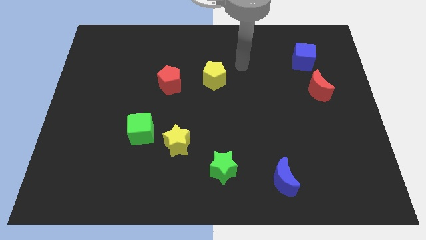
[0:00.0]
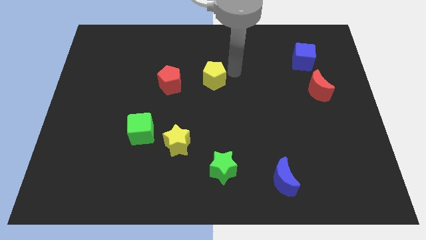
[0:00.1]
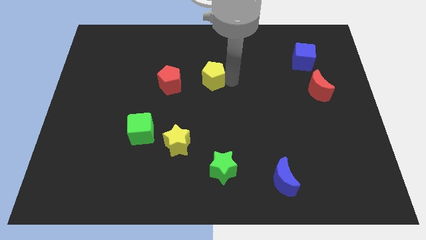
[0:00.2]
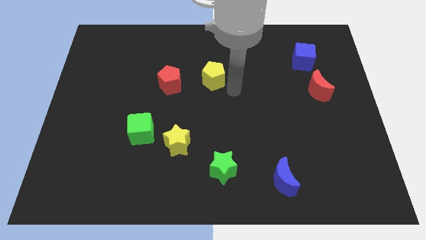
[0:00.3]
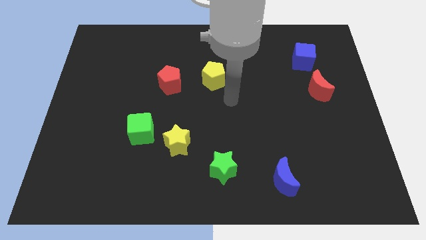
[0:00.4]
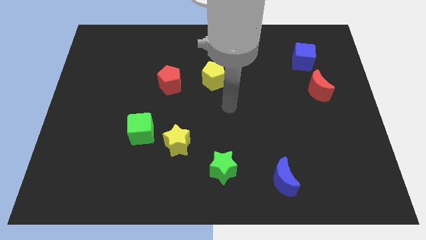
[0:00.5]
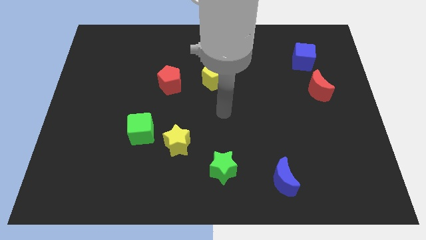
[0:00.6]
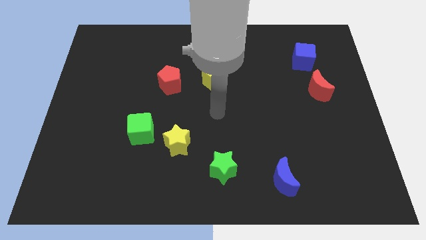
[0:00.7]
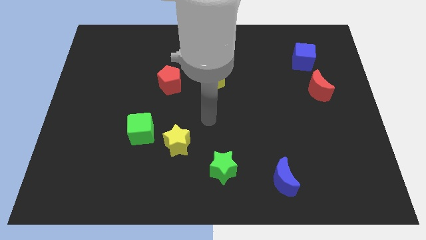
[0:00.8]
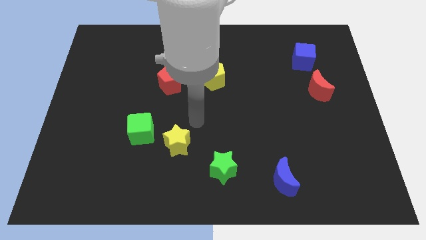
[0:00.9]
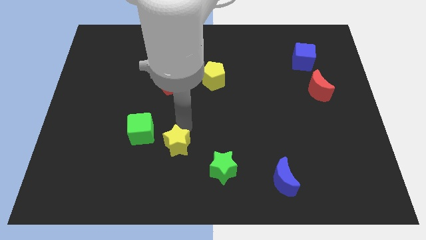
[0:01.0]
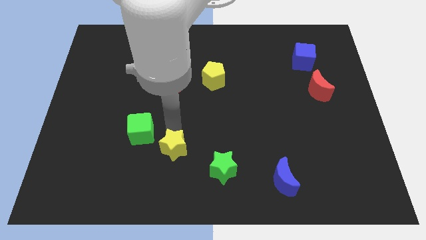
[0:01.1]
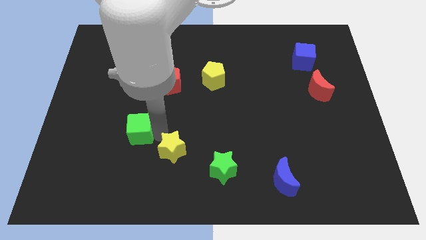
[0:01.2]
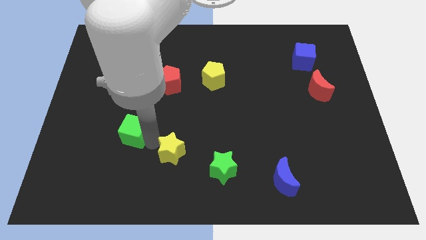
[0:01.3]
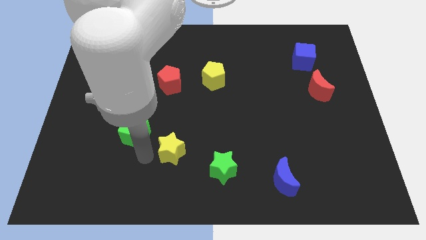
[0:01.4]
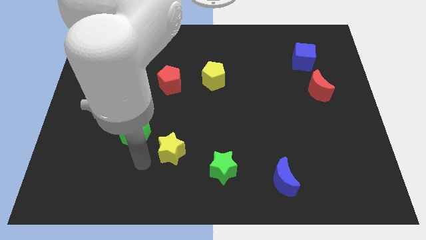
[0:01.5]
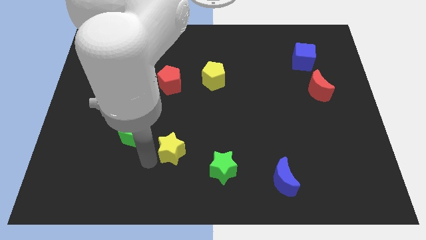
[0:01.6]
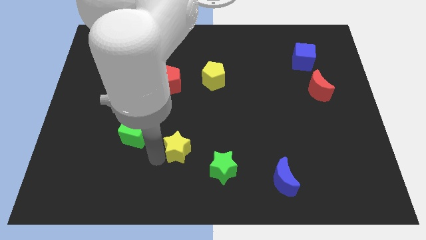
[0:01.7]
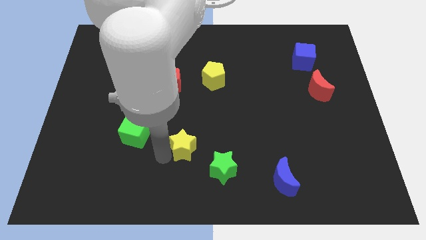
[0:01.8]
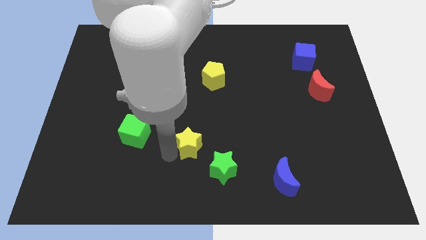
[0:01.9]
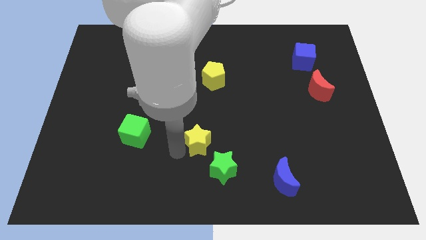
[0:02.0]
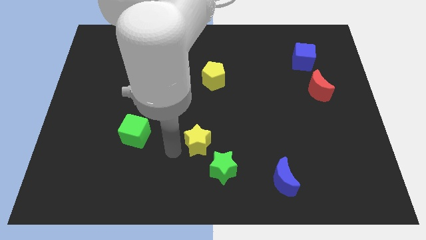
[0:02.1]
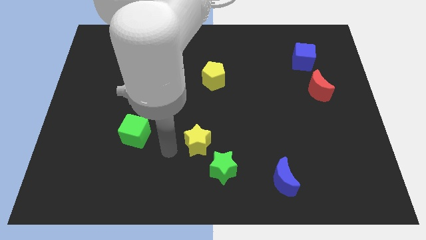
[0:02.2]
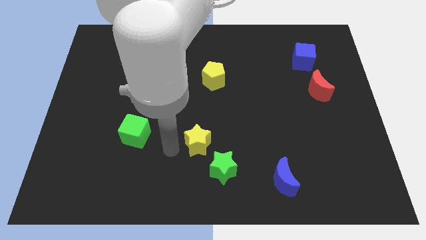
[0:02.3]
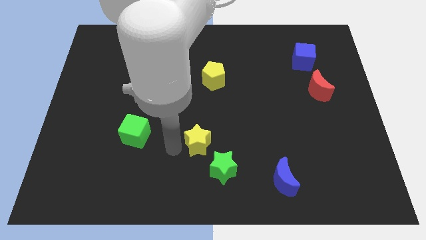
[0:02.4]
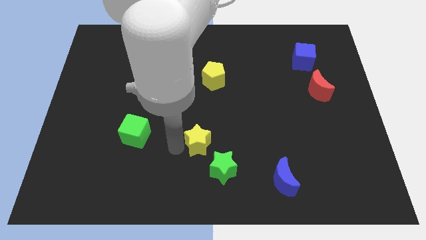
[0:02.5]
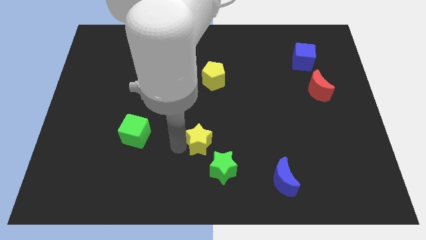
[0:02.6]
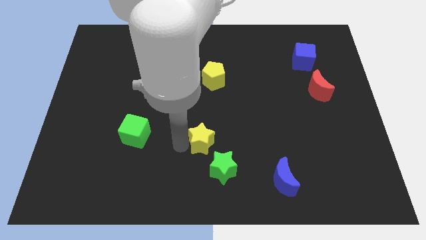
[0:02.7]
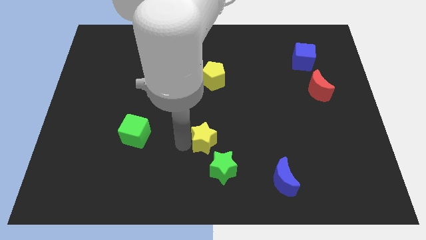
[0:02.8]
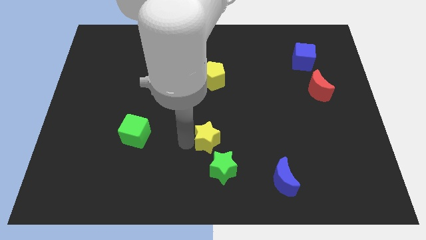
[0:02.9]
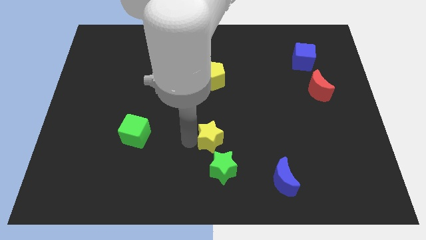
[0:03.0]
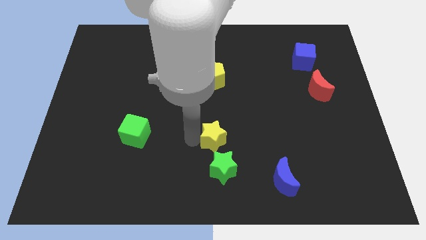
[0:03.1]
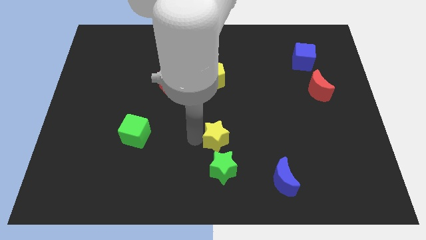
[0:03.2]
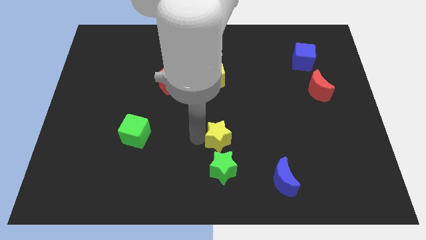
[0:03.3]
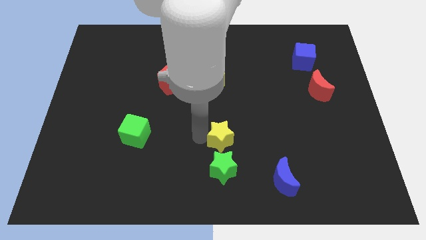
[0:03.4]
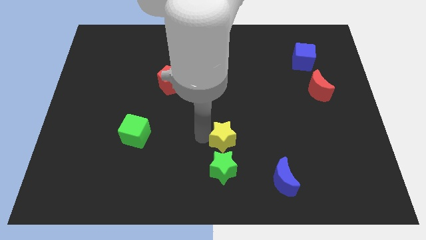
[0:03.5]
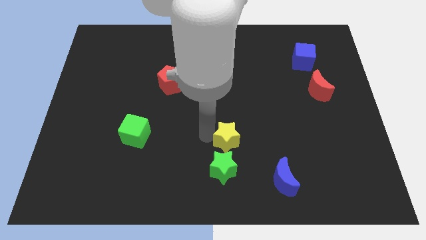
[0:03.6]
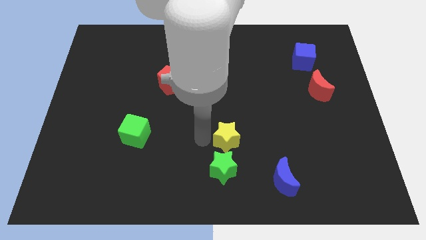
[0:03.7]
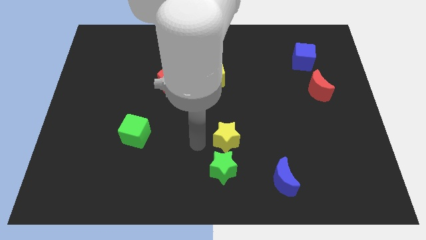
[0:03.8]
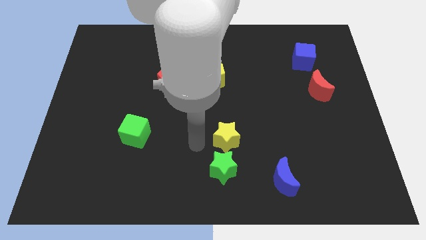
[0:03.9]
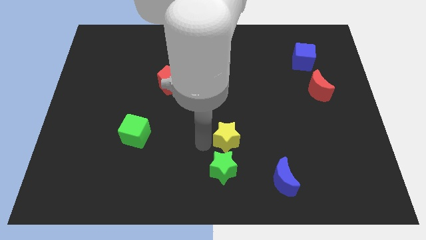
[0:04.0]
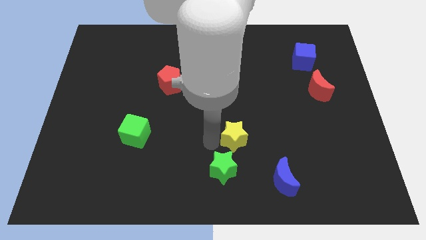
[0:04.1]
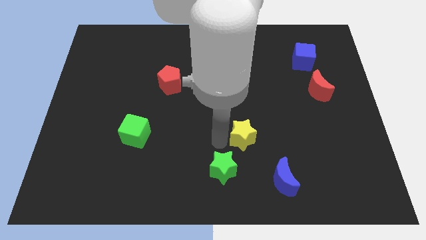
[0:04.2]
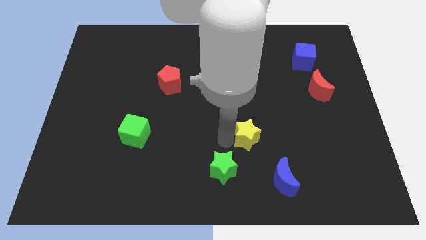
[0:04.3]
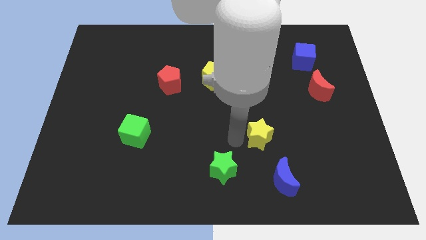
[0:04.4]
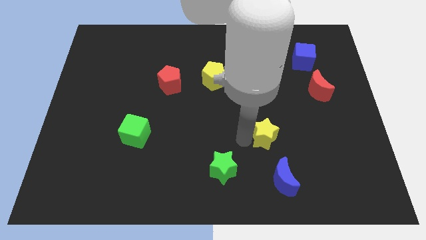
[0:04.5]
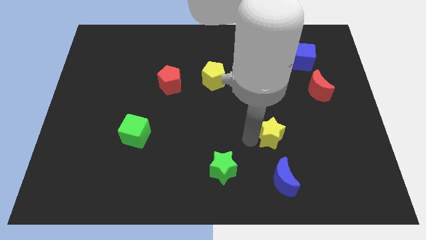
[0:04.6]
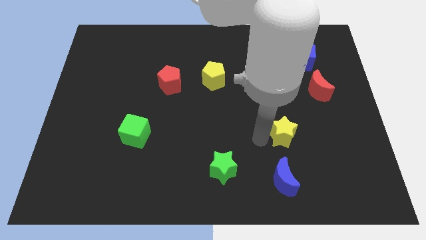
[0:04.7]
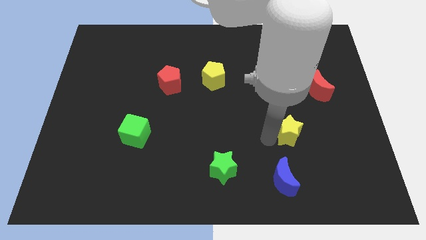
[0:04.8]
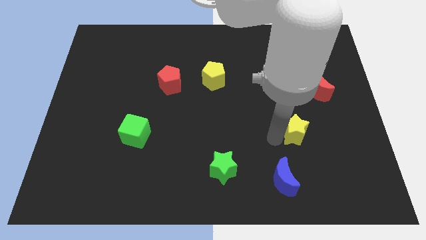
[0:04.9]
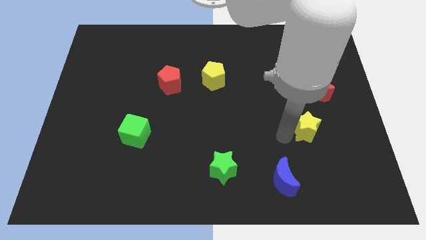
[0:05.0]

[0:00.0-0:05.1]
move the yellow star below the red moon

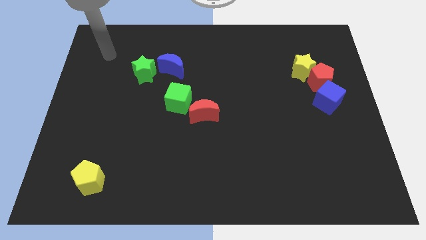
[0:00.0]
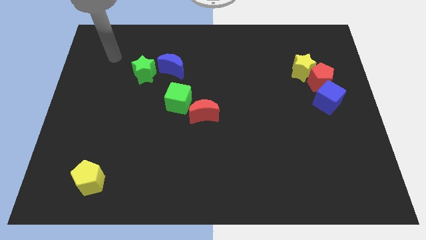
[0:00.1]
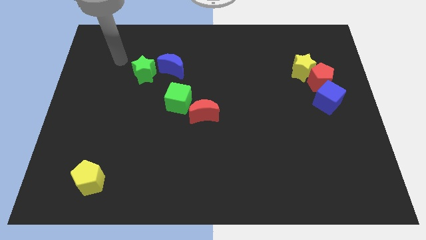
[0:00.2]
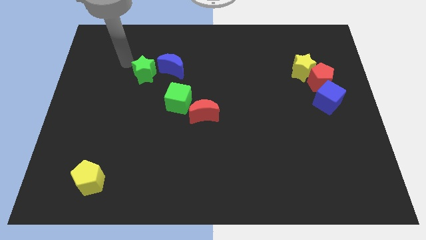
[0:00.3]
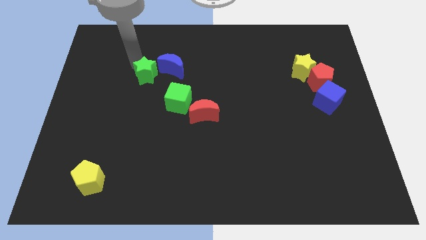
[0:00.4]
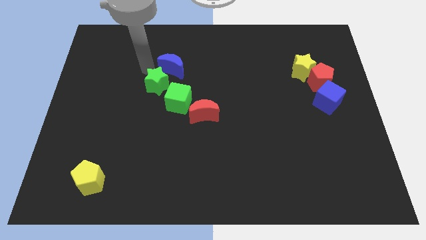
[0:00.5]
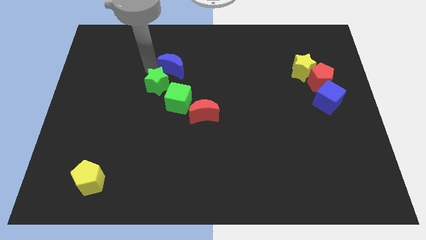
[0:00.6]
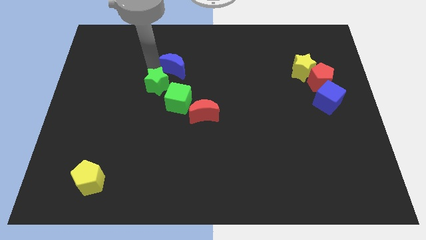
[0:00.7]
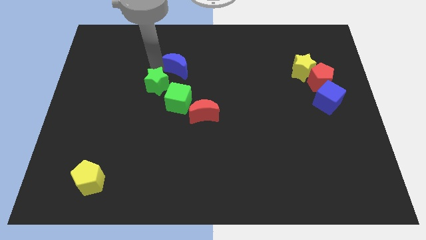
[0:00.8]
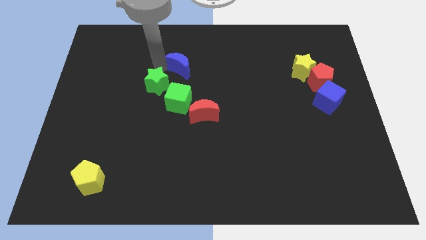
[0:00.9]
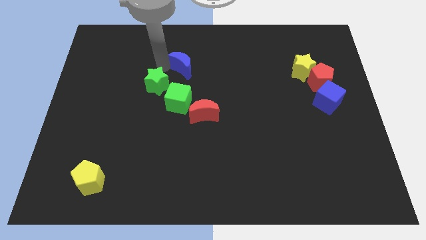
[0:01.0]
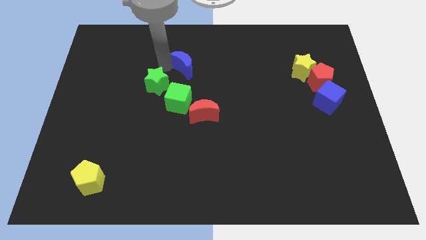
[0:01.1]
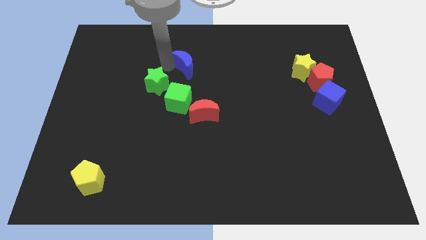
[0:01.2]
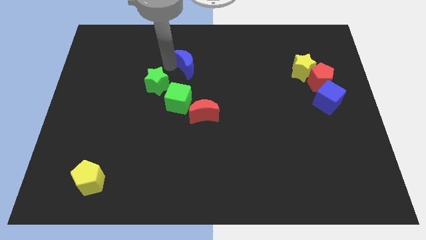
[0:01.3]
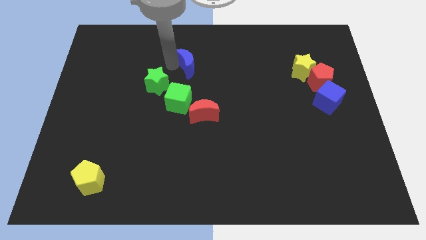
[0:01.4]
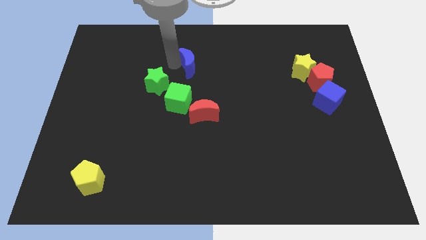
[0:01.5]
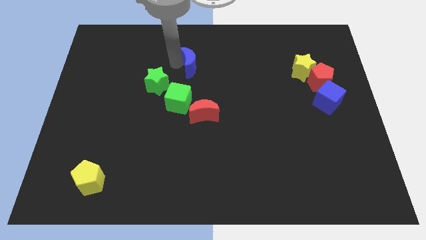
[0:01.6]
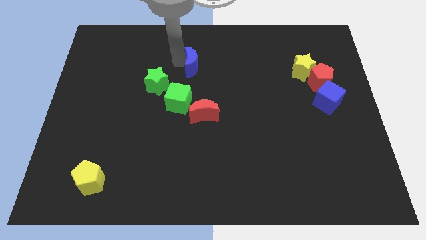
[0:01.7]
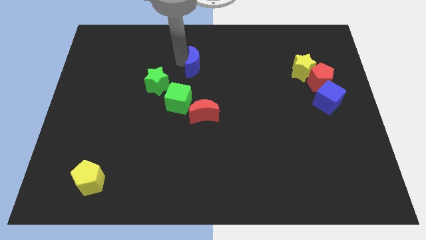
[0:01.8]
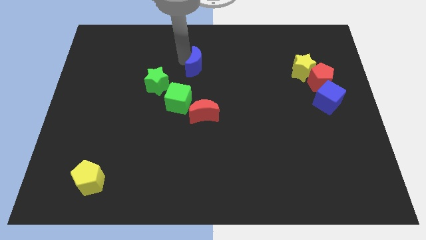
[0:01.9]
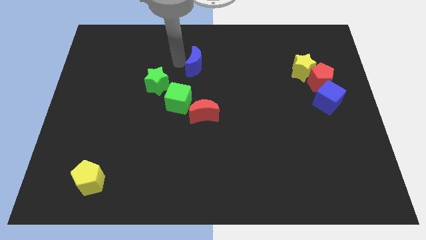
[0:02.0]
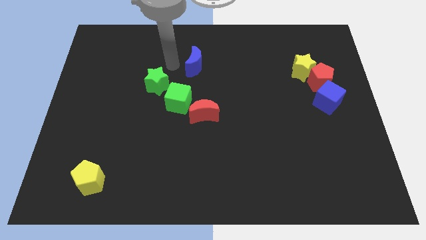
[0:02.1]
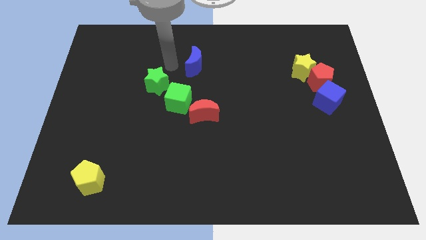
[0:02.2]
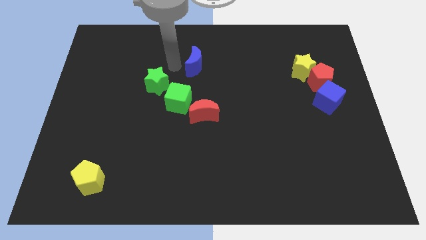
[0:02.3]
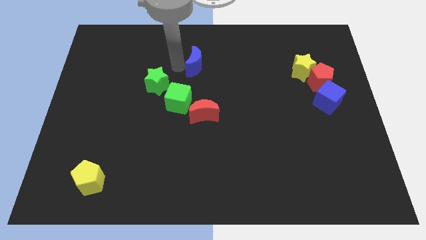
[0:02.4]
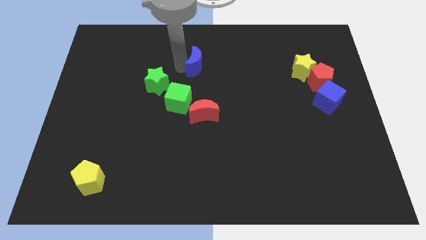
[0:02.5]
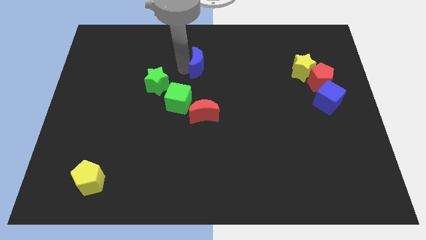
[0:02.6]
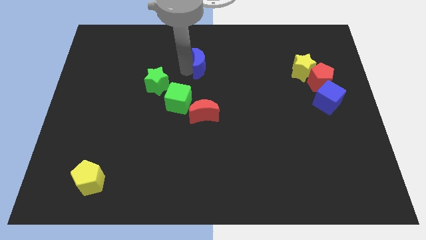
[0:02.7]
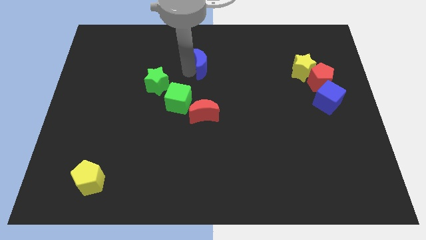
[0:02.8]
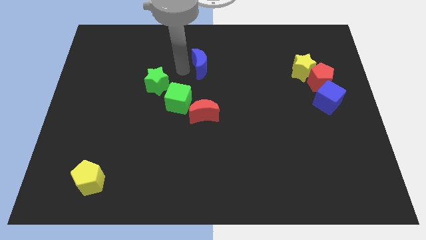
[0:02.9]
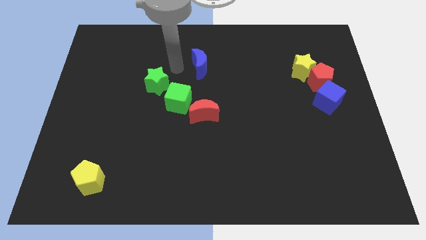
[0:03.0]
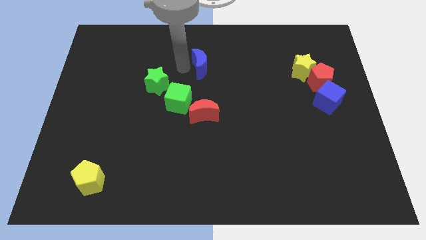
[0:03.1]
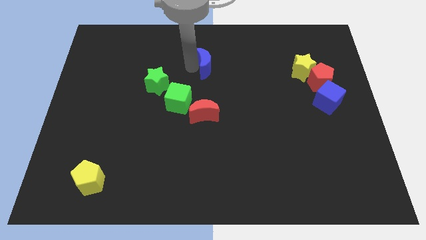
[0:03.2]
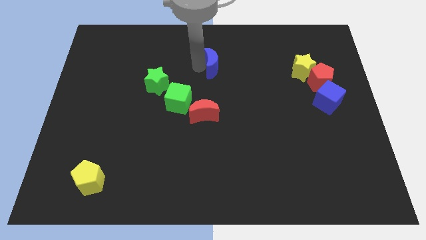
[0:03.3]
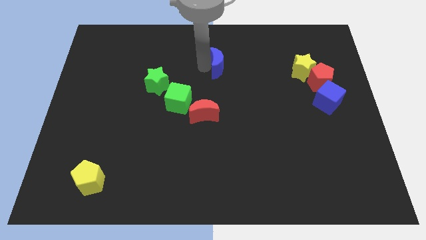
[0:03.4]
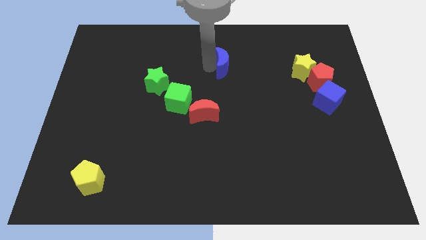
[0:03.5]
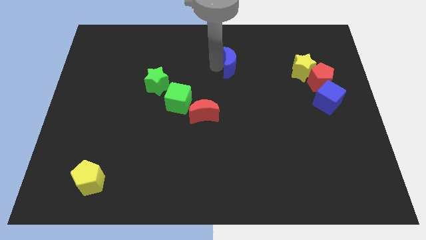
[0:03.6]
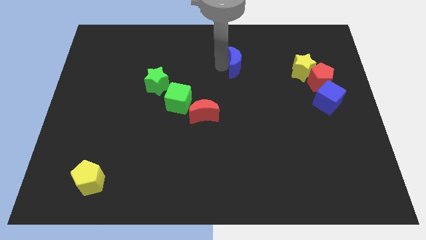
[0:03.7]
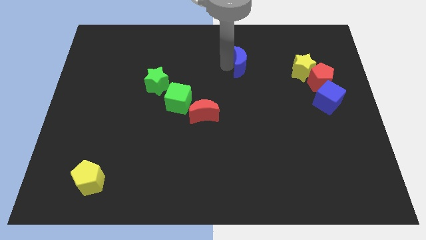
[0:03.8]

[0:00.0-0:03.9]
put the blue moon left of the yellow star
